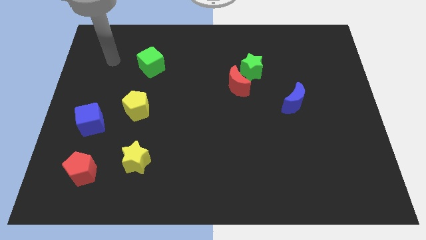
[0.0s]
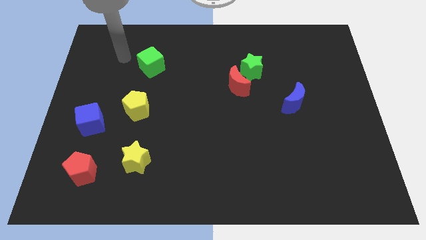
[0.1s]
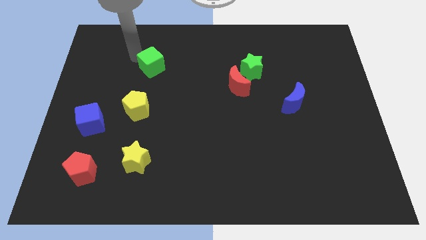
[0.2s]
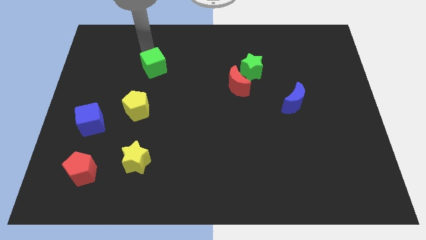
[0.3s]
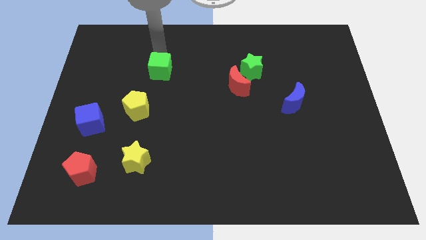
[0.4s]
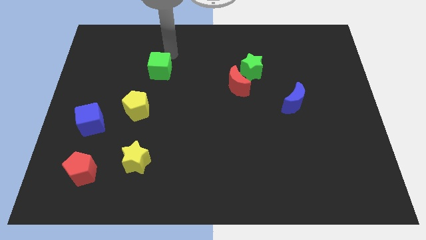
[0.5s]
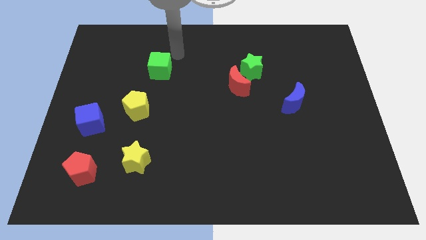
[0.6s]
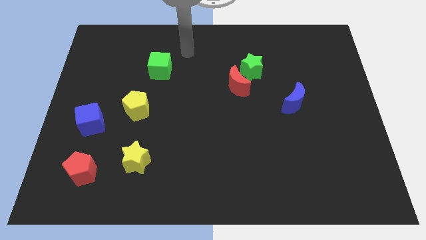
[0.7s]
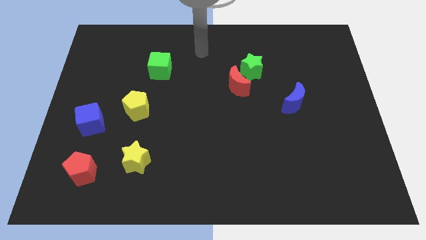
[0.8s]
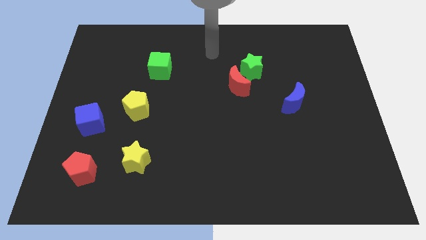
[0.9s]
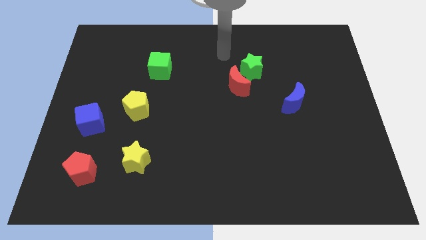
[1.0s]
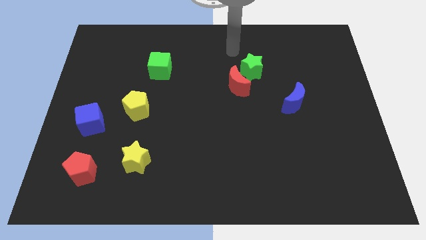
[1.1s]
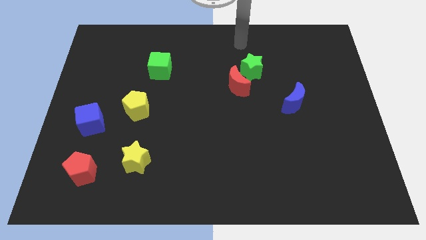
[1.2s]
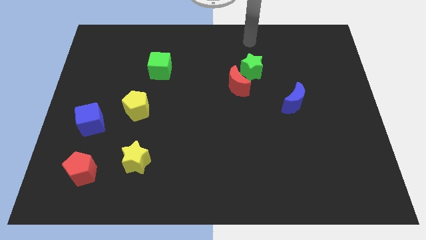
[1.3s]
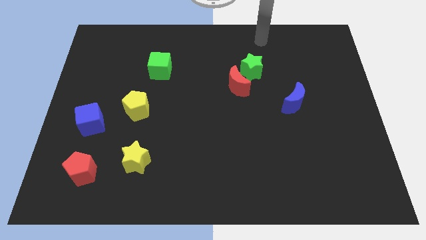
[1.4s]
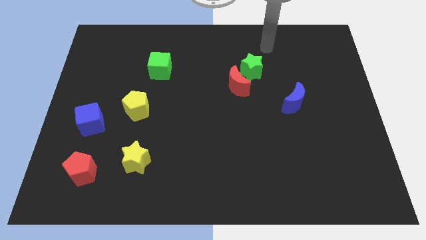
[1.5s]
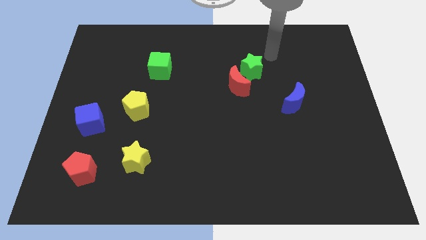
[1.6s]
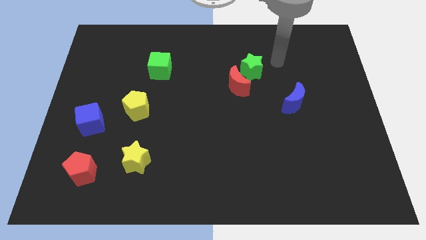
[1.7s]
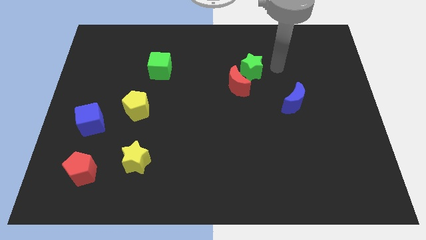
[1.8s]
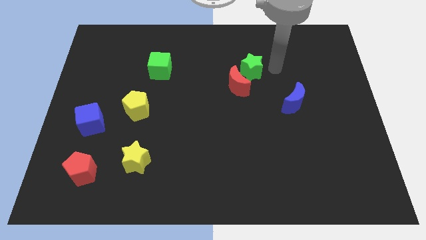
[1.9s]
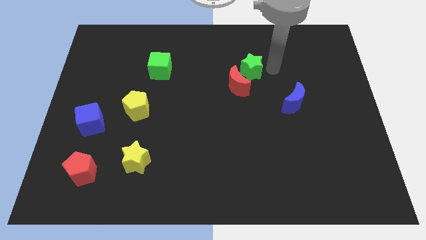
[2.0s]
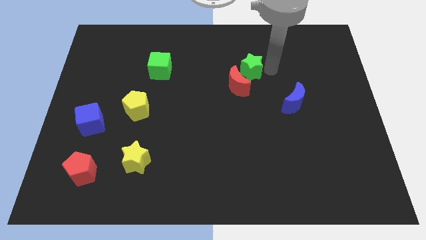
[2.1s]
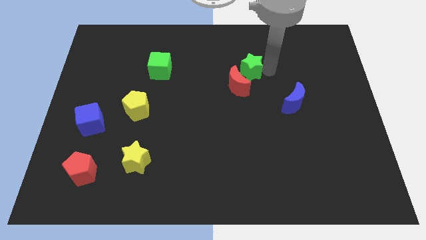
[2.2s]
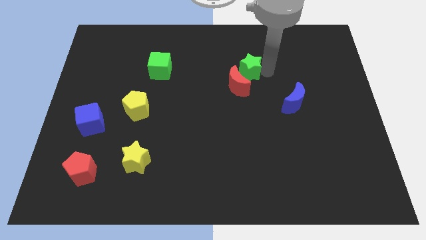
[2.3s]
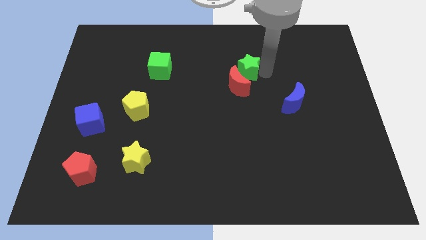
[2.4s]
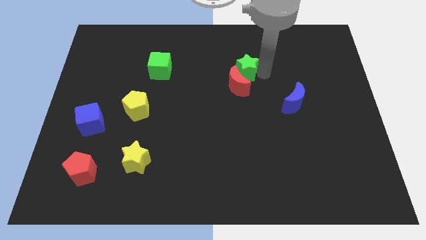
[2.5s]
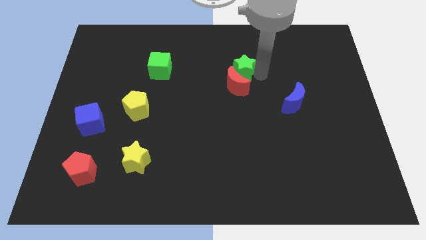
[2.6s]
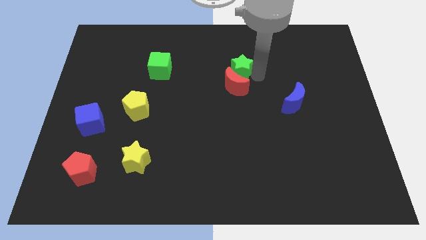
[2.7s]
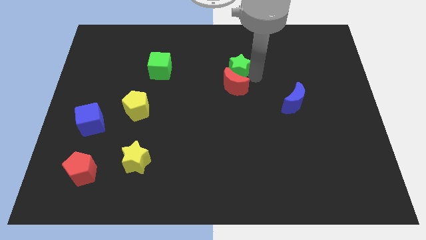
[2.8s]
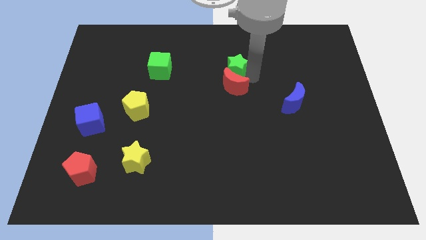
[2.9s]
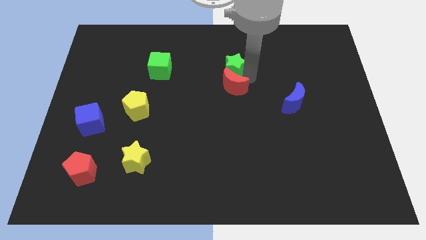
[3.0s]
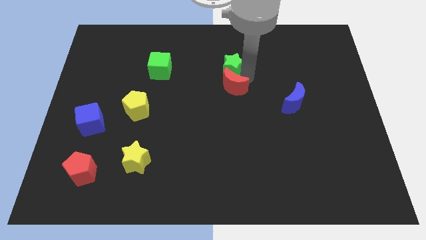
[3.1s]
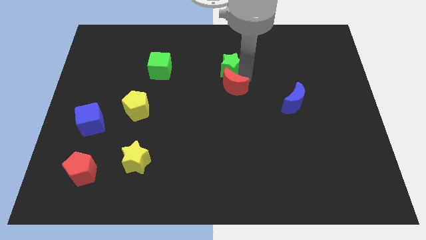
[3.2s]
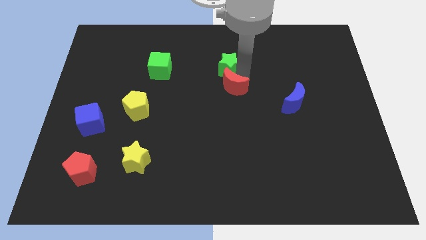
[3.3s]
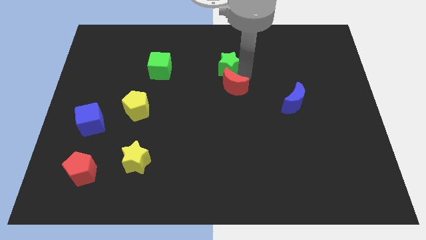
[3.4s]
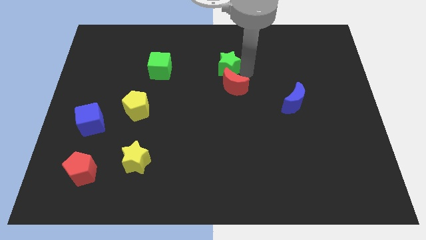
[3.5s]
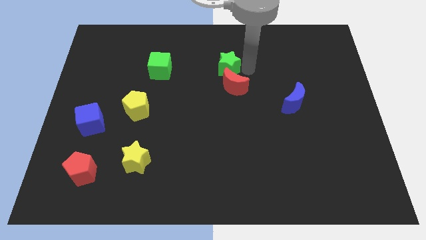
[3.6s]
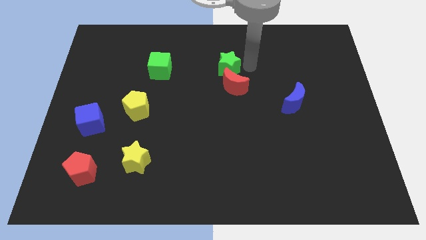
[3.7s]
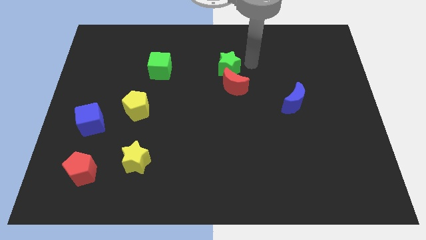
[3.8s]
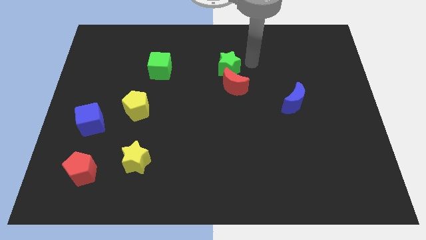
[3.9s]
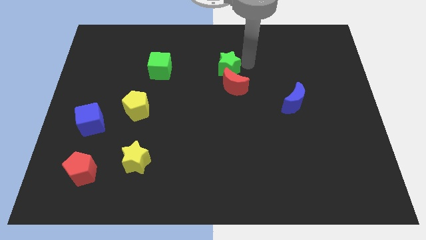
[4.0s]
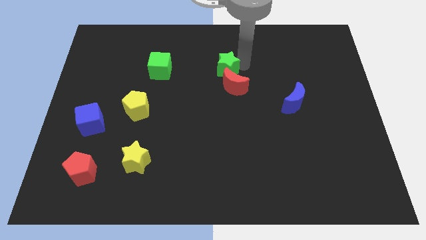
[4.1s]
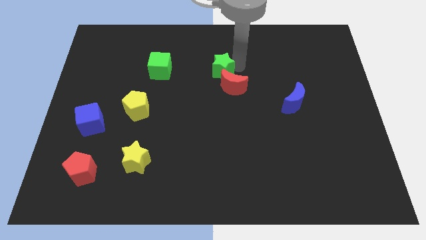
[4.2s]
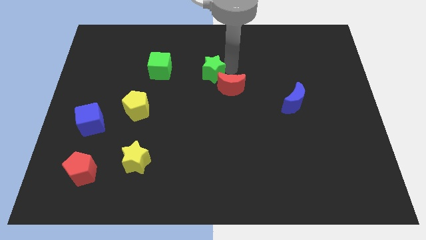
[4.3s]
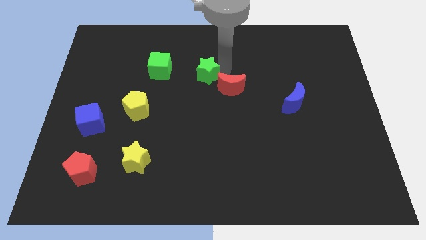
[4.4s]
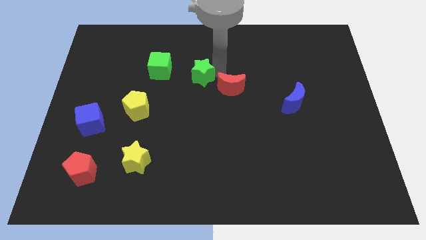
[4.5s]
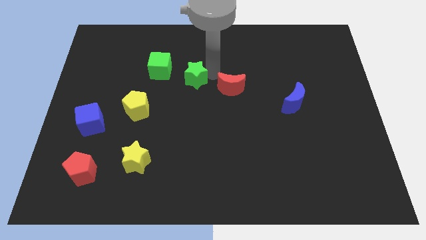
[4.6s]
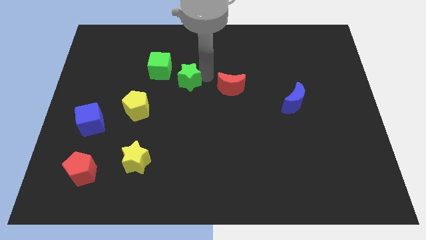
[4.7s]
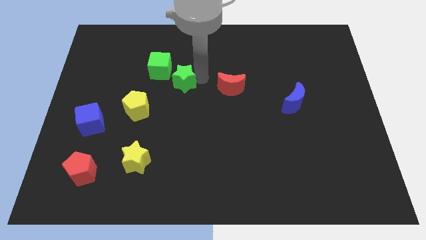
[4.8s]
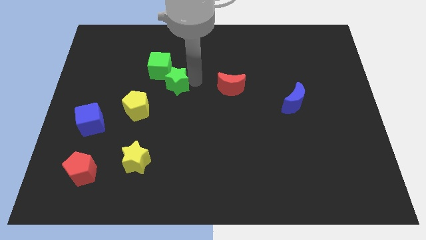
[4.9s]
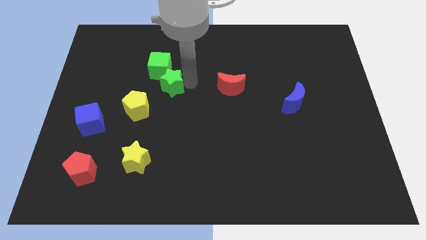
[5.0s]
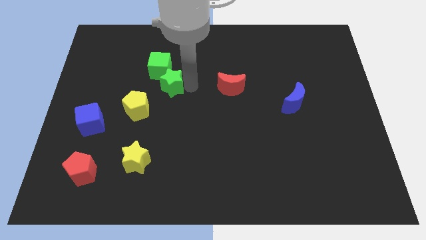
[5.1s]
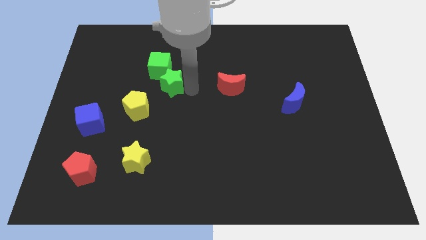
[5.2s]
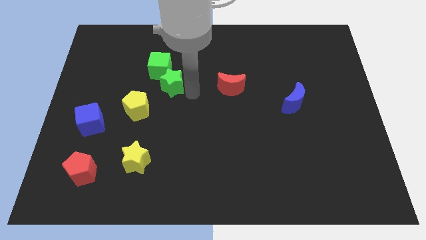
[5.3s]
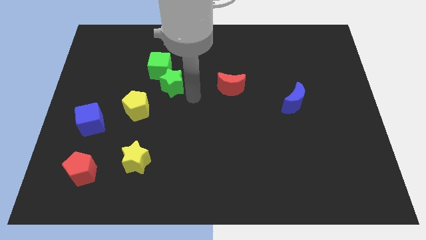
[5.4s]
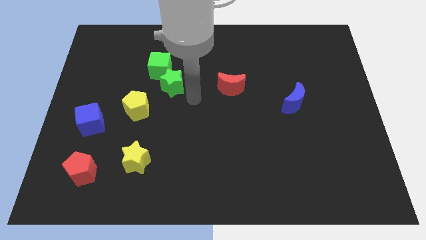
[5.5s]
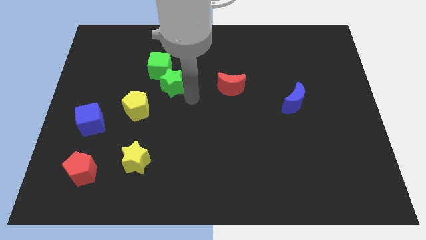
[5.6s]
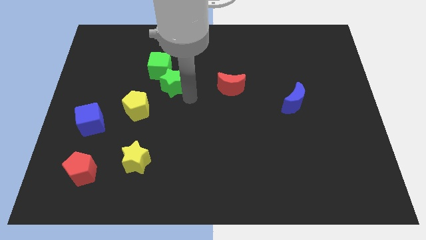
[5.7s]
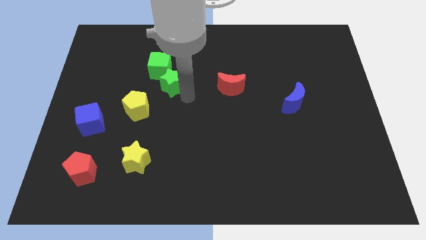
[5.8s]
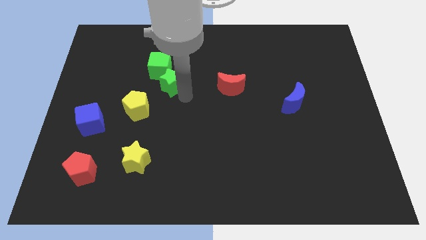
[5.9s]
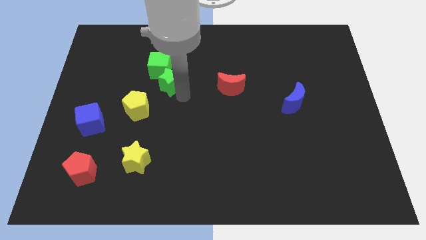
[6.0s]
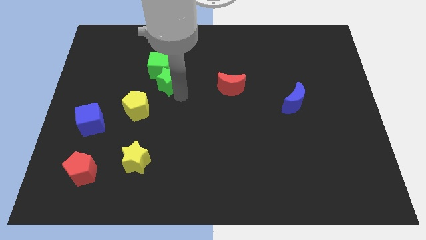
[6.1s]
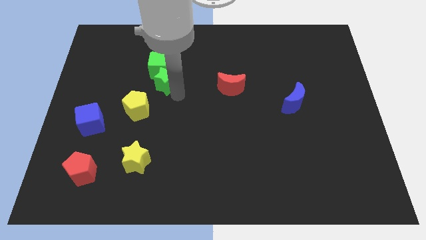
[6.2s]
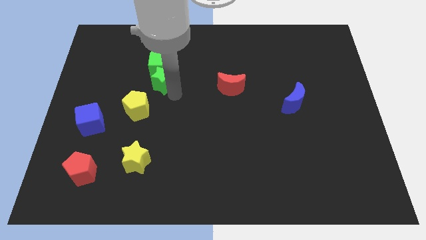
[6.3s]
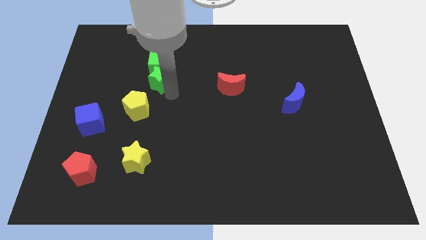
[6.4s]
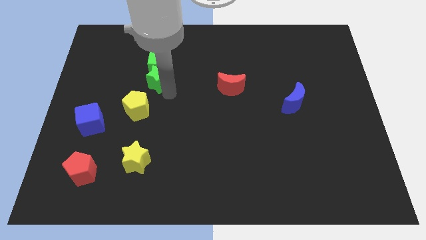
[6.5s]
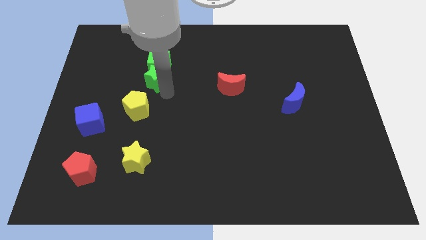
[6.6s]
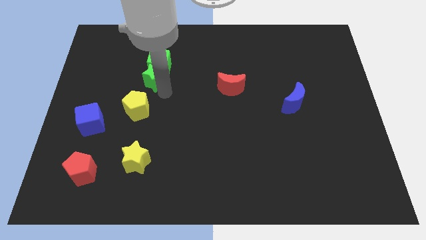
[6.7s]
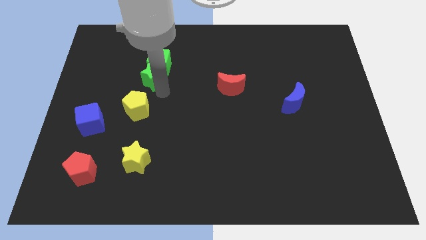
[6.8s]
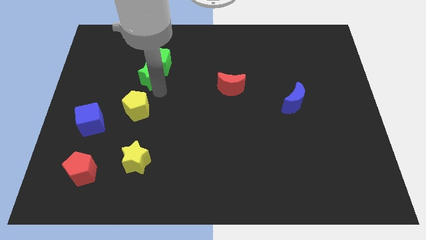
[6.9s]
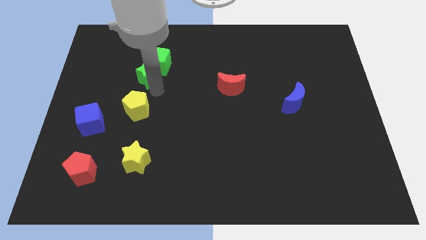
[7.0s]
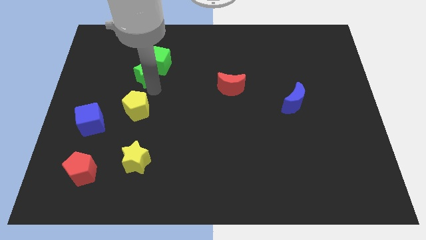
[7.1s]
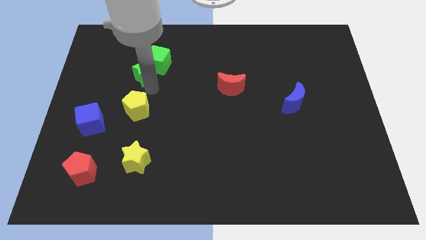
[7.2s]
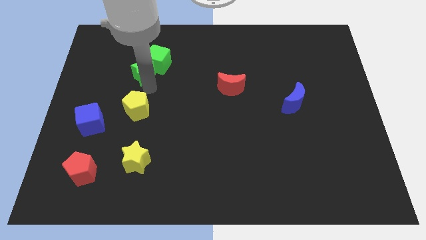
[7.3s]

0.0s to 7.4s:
put the green star to the left of the green cube
